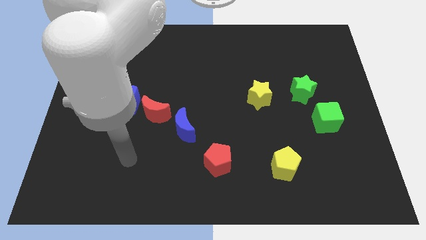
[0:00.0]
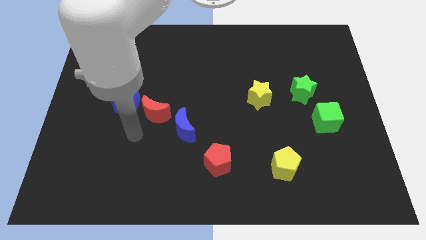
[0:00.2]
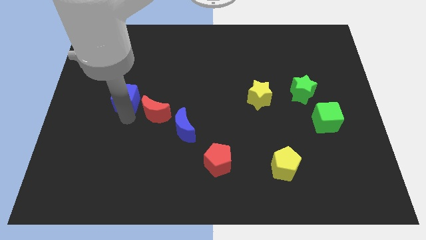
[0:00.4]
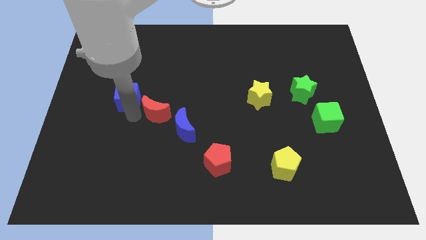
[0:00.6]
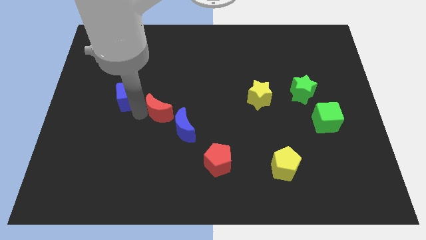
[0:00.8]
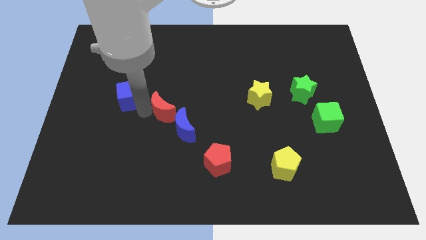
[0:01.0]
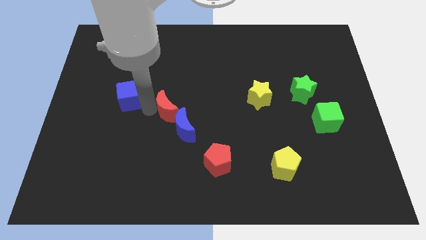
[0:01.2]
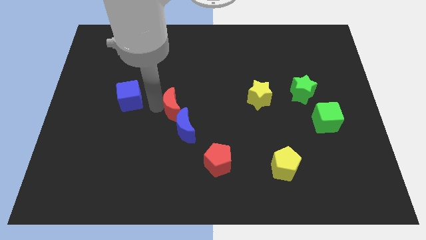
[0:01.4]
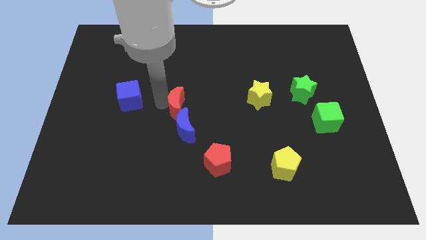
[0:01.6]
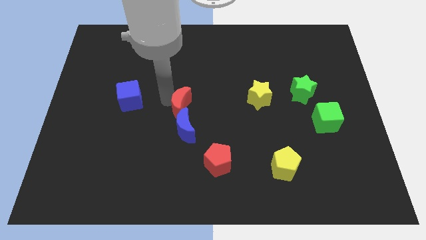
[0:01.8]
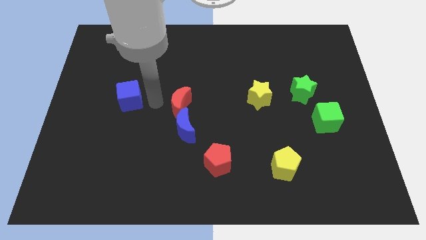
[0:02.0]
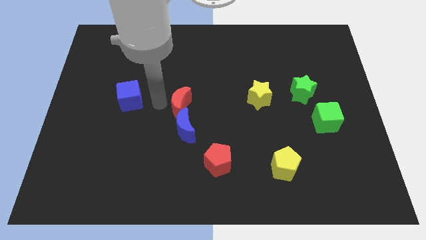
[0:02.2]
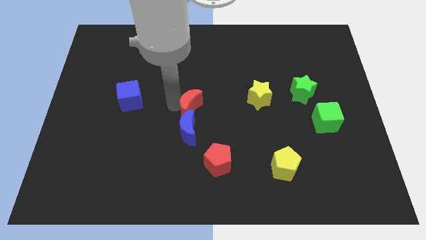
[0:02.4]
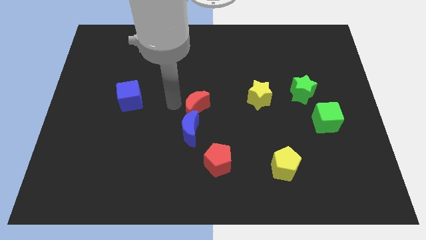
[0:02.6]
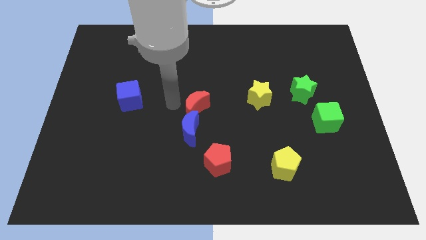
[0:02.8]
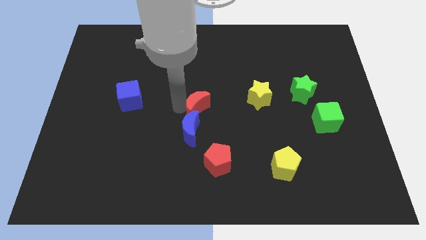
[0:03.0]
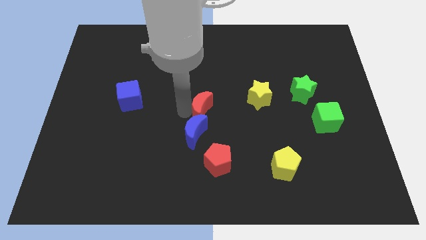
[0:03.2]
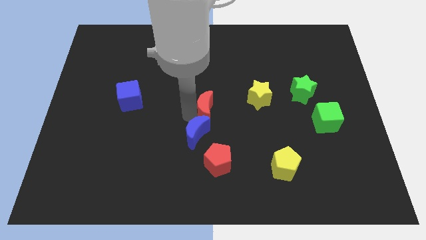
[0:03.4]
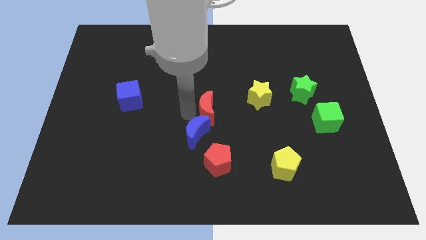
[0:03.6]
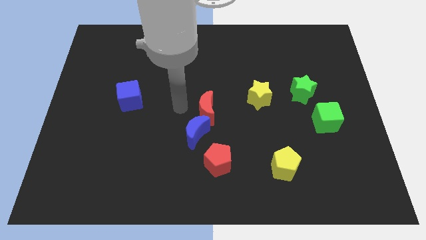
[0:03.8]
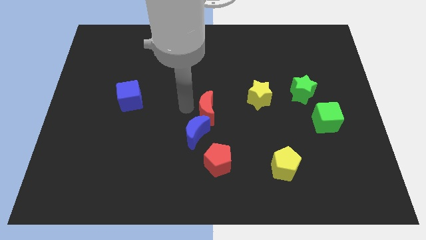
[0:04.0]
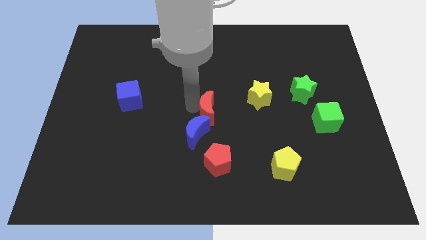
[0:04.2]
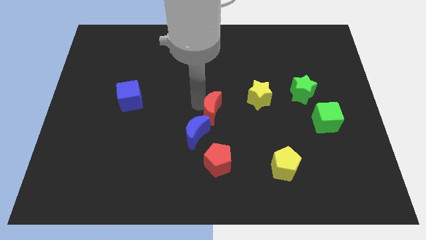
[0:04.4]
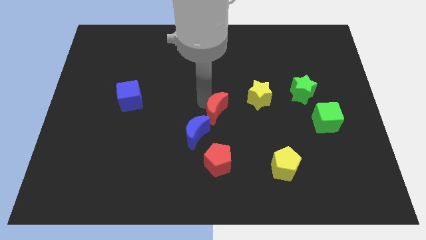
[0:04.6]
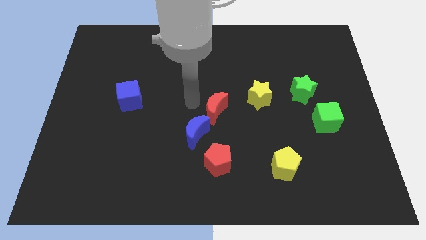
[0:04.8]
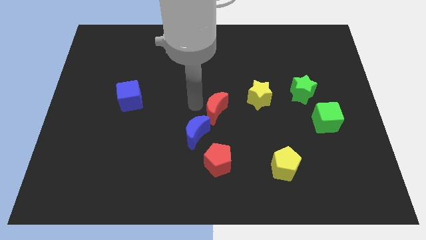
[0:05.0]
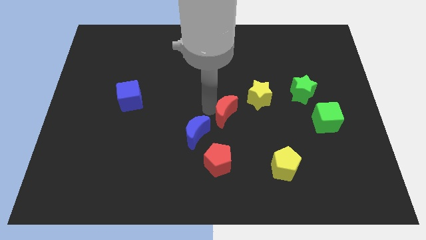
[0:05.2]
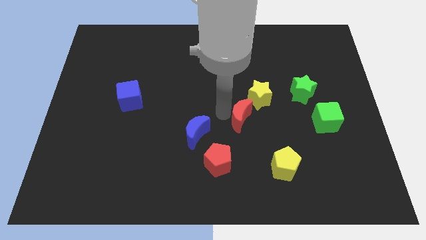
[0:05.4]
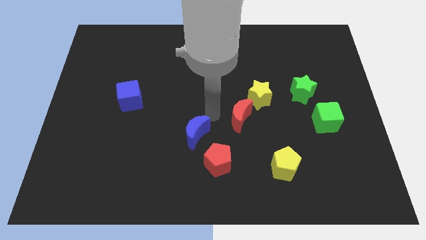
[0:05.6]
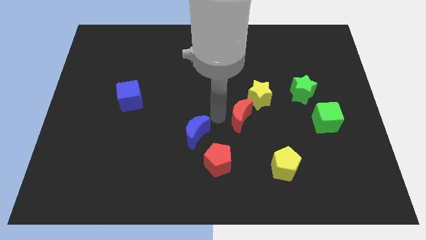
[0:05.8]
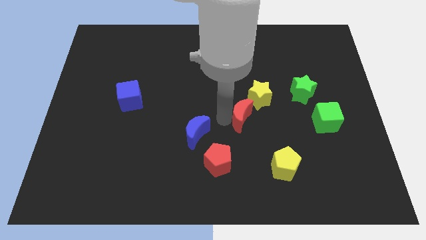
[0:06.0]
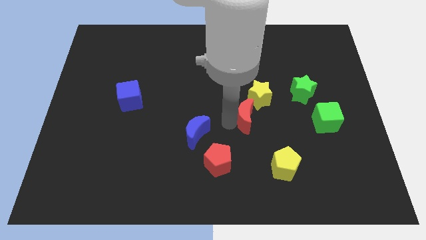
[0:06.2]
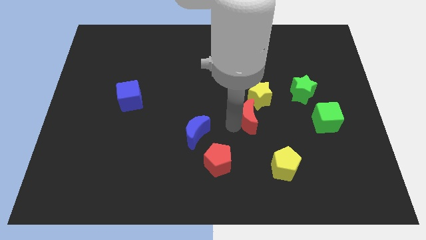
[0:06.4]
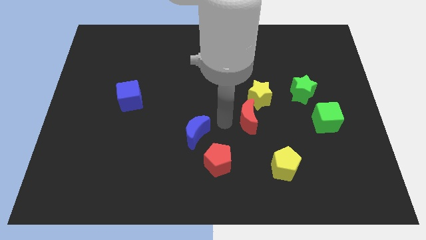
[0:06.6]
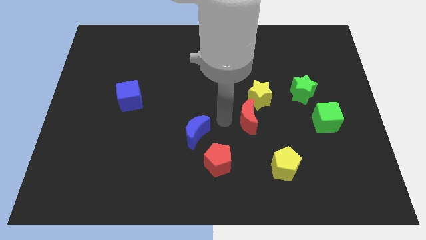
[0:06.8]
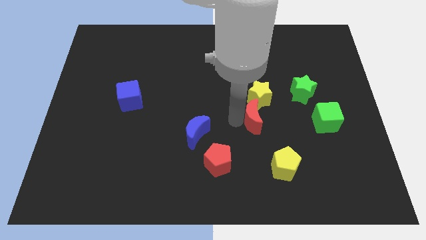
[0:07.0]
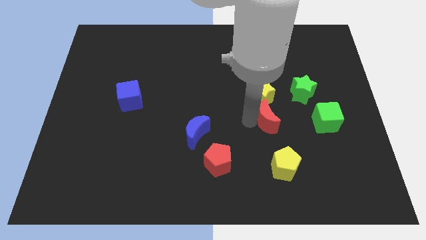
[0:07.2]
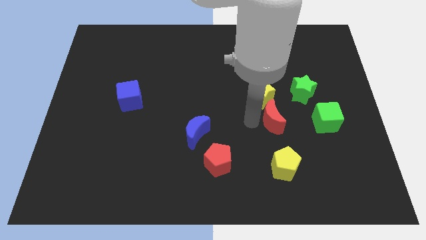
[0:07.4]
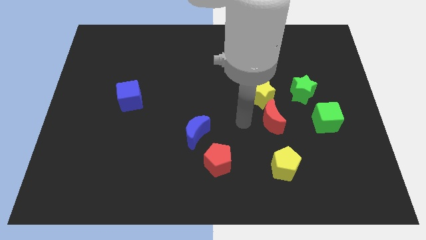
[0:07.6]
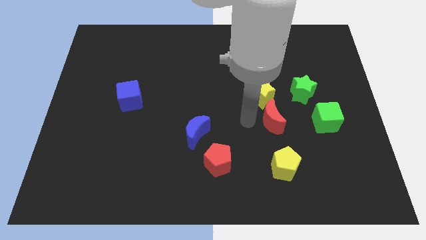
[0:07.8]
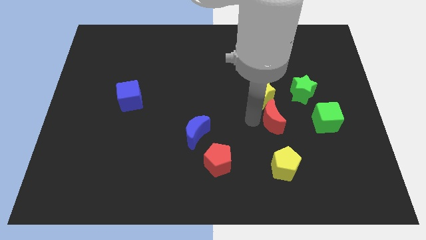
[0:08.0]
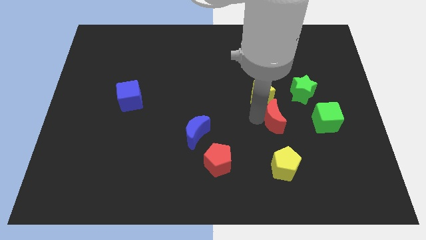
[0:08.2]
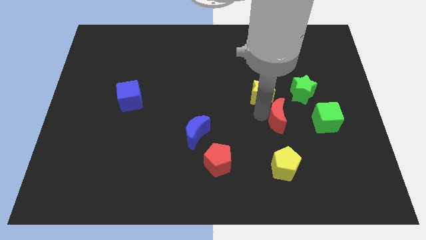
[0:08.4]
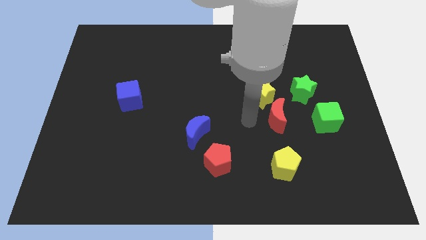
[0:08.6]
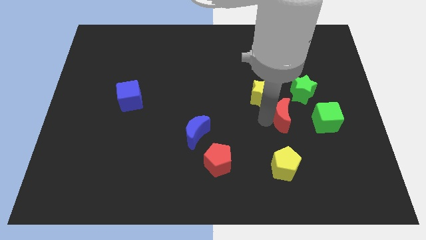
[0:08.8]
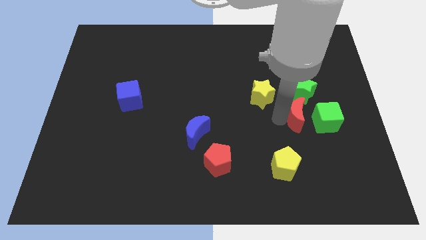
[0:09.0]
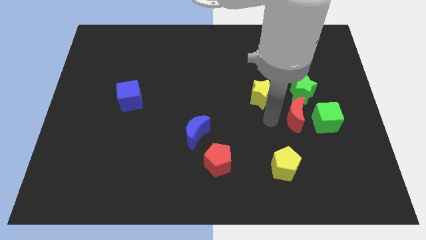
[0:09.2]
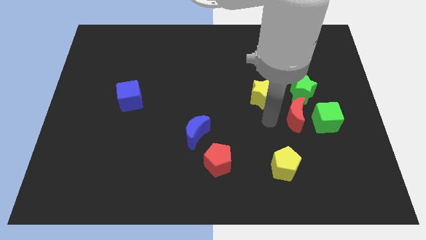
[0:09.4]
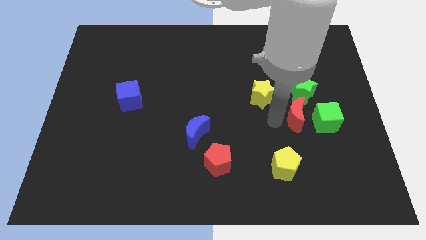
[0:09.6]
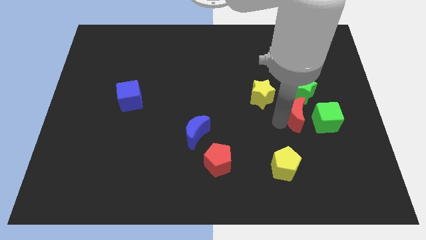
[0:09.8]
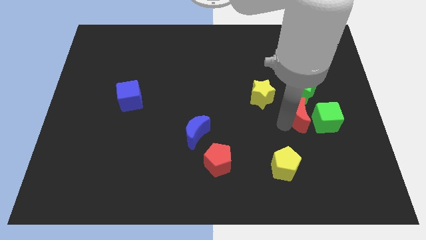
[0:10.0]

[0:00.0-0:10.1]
move the red moon close to the green cube

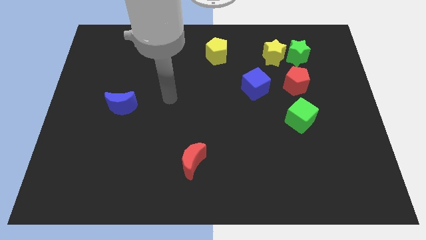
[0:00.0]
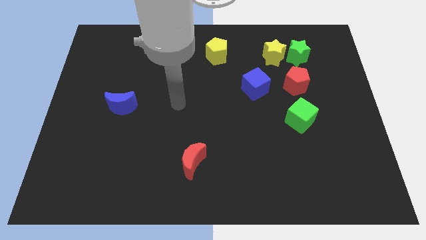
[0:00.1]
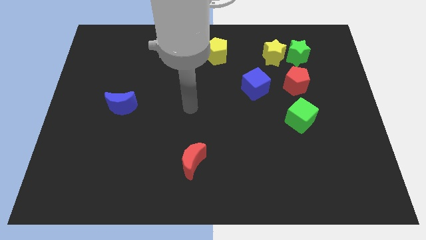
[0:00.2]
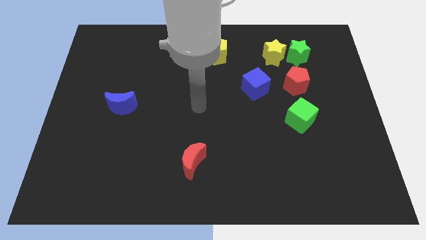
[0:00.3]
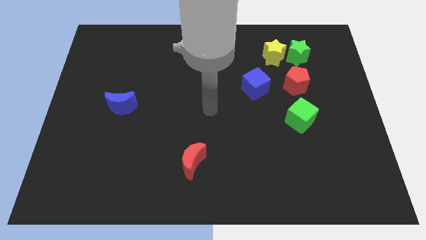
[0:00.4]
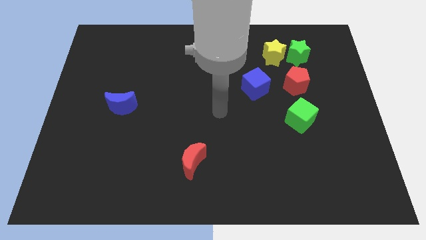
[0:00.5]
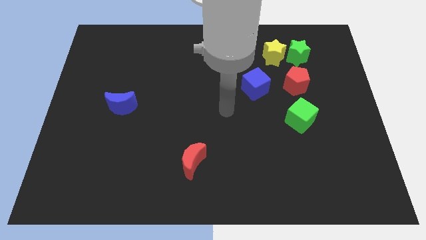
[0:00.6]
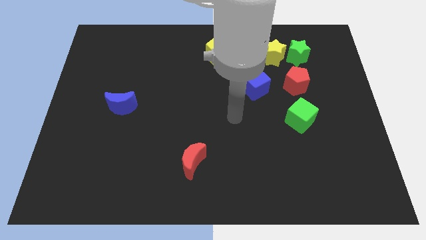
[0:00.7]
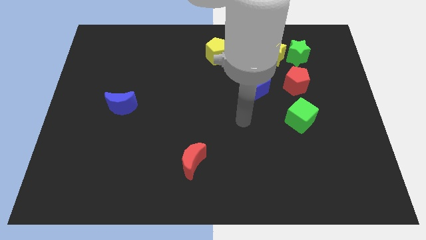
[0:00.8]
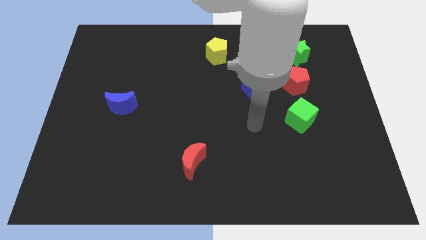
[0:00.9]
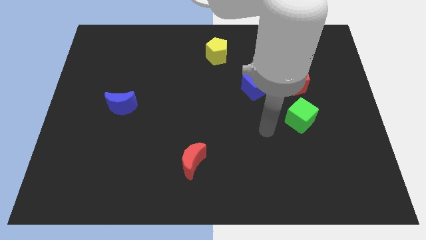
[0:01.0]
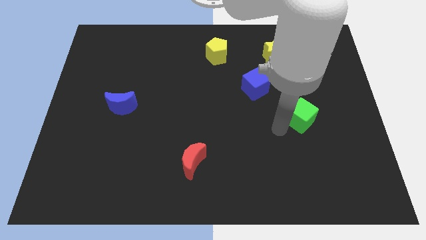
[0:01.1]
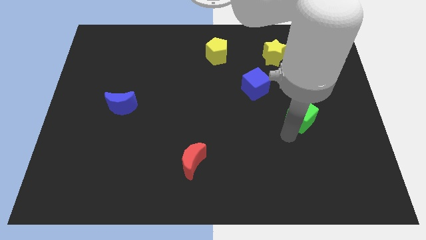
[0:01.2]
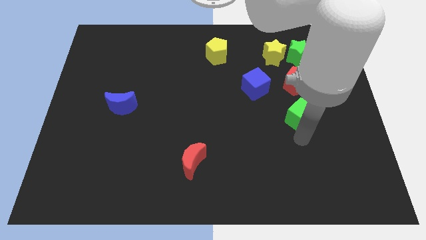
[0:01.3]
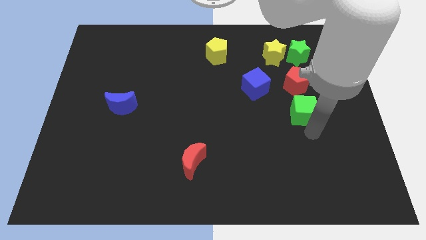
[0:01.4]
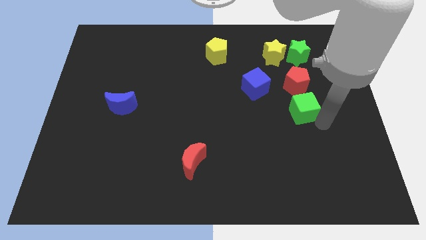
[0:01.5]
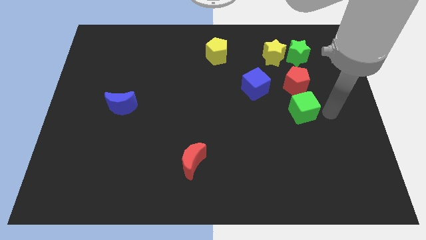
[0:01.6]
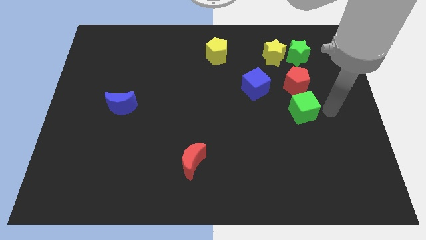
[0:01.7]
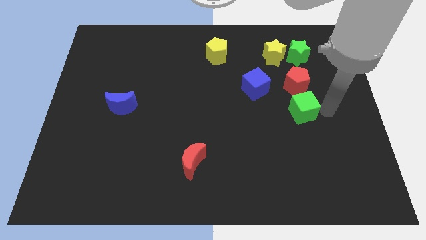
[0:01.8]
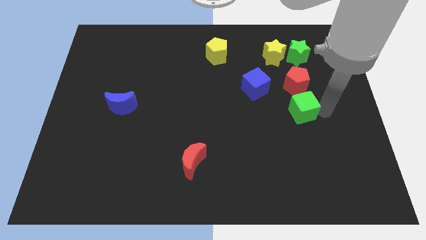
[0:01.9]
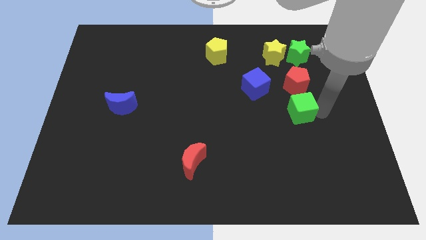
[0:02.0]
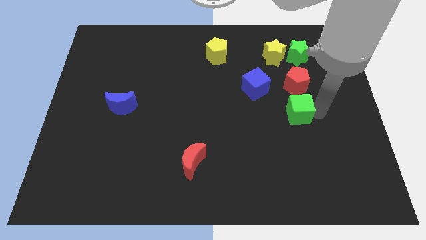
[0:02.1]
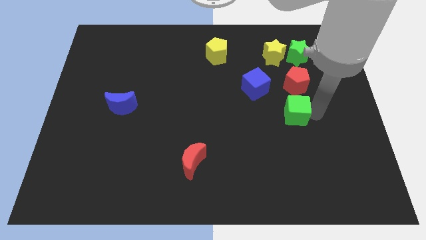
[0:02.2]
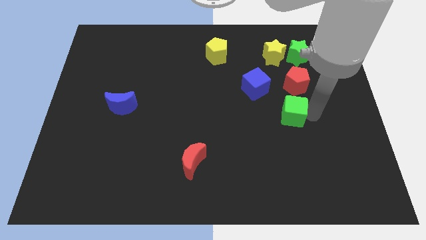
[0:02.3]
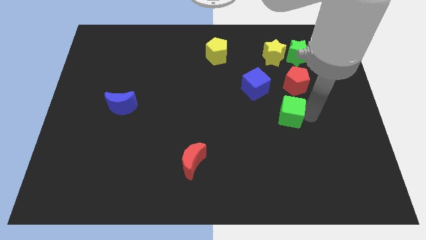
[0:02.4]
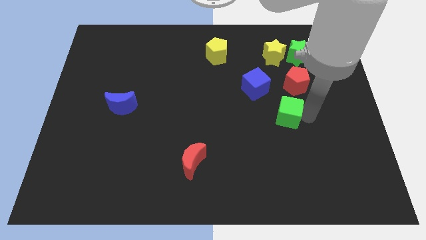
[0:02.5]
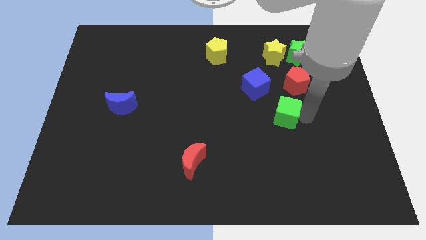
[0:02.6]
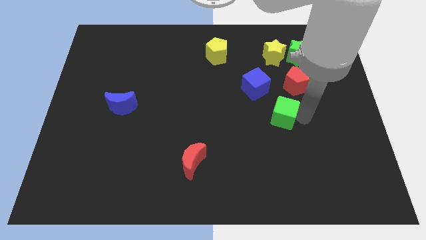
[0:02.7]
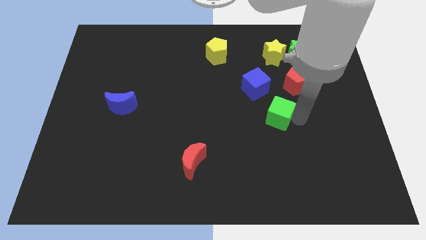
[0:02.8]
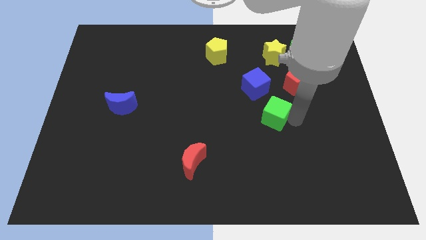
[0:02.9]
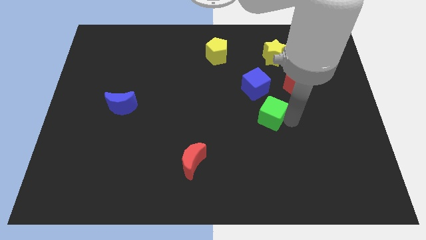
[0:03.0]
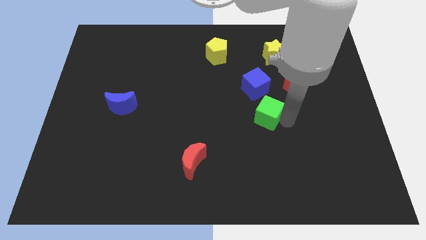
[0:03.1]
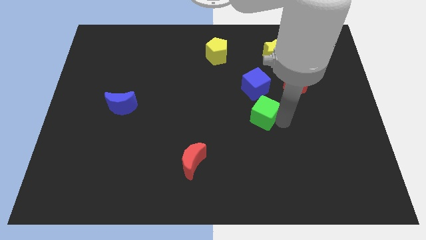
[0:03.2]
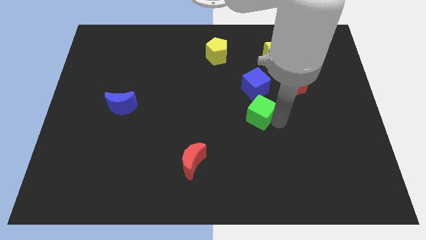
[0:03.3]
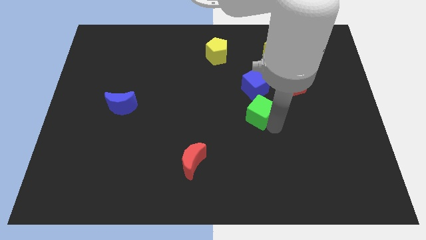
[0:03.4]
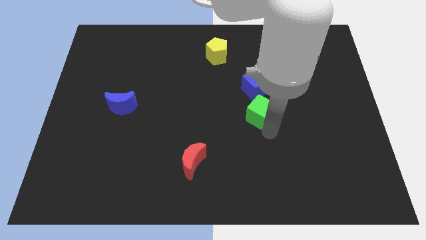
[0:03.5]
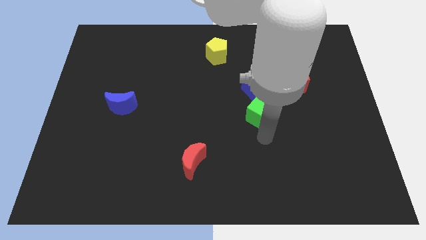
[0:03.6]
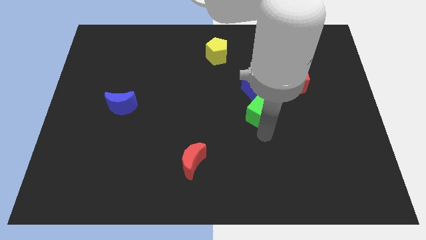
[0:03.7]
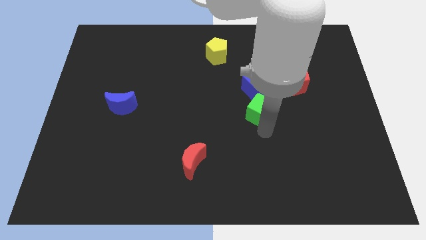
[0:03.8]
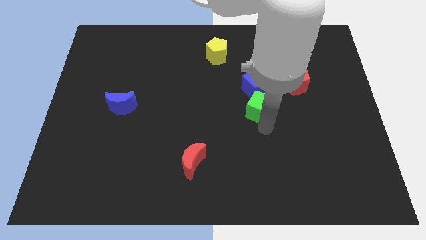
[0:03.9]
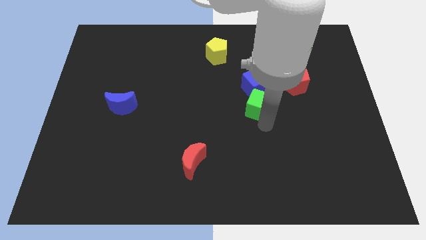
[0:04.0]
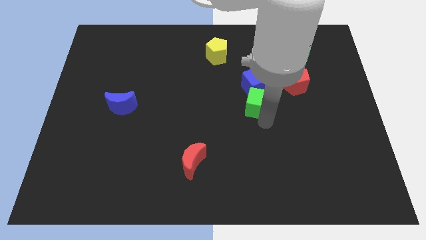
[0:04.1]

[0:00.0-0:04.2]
slide the green cube to the blue cube
